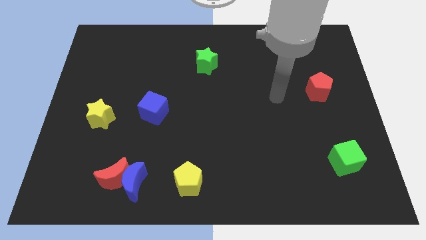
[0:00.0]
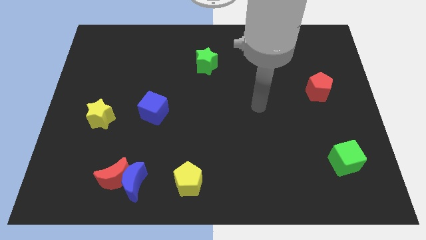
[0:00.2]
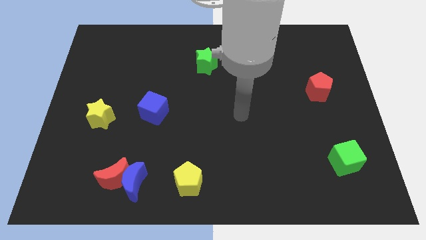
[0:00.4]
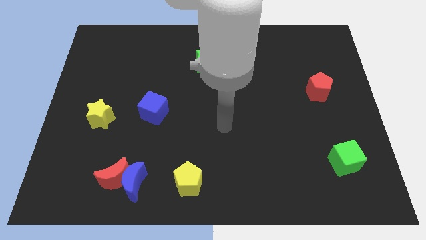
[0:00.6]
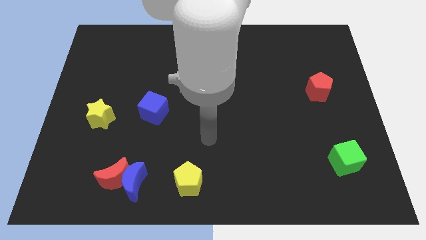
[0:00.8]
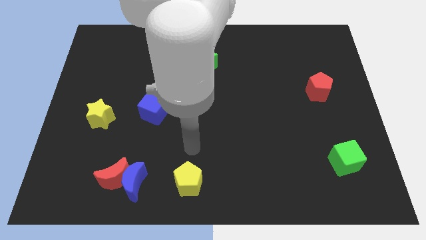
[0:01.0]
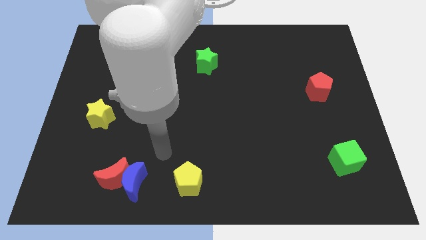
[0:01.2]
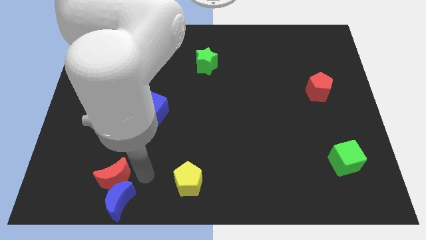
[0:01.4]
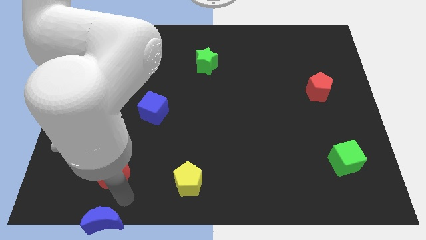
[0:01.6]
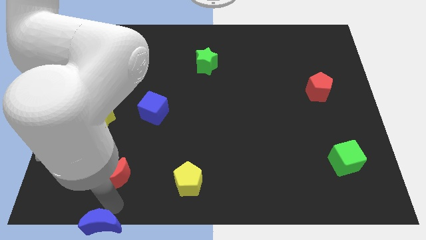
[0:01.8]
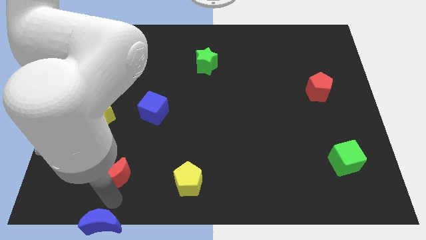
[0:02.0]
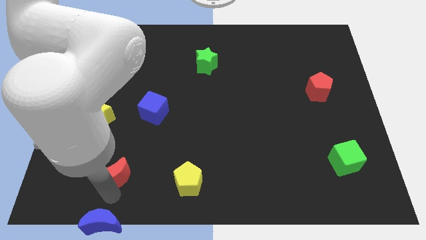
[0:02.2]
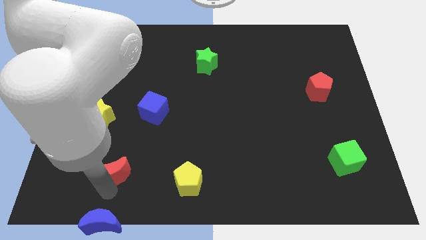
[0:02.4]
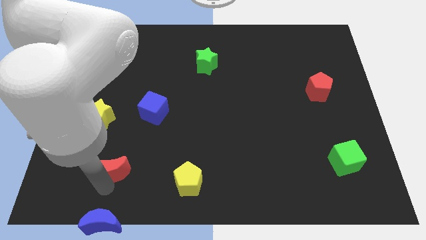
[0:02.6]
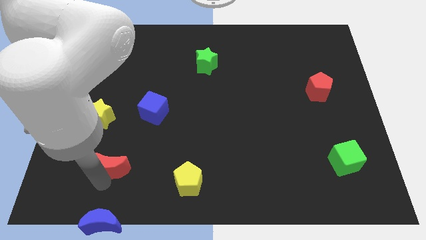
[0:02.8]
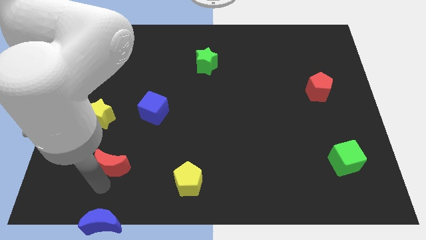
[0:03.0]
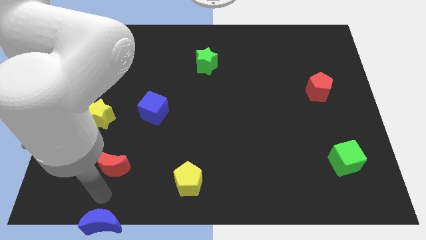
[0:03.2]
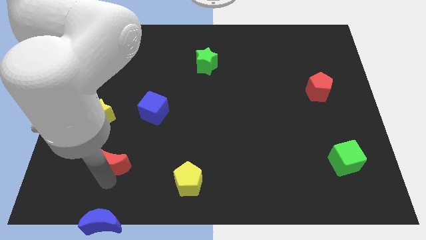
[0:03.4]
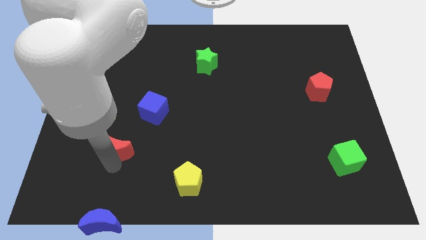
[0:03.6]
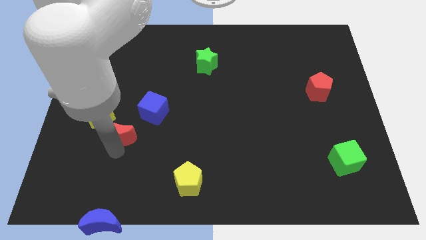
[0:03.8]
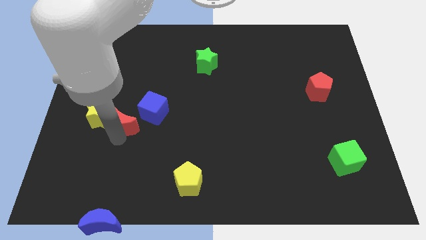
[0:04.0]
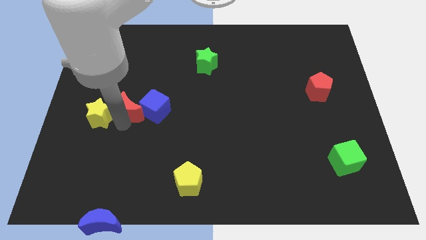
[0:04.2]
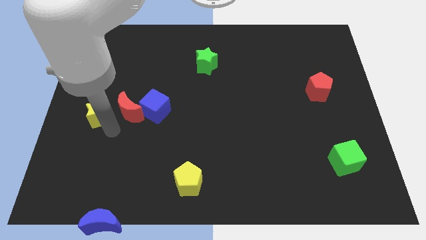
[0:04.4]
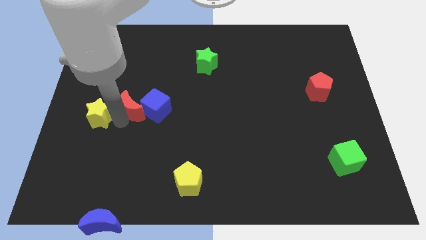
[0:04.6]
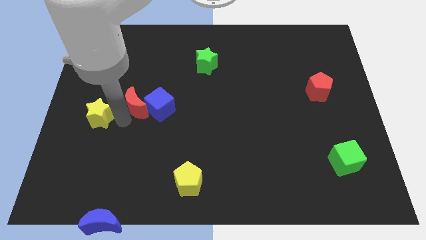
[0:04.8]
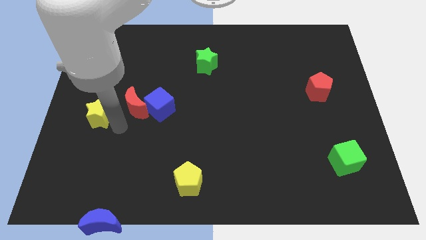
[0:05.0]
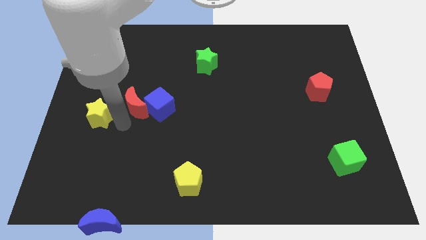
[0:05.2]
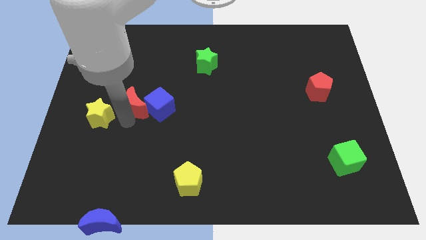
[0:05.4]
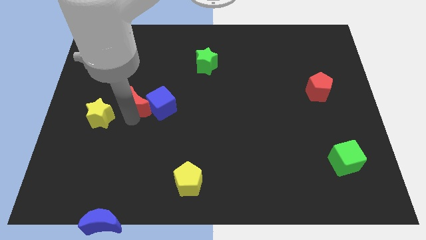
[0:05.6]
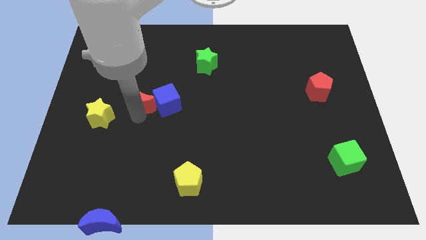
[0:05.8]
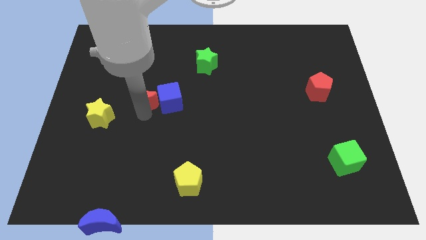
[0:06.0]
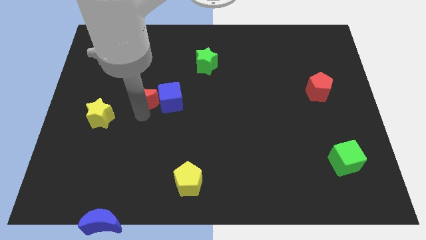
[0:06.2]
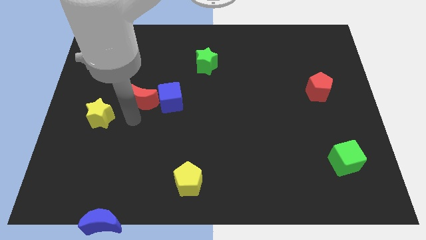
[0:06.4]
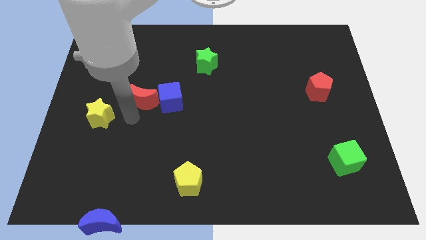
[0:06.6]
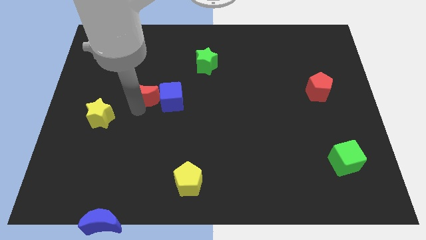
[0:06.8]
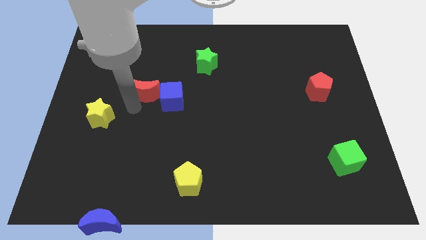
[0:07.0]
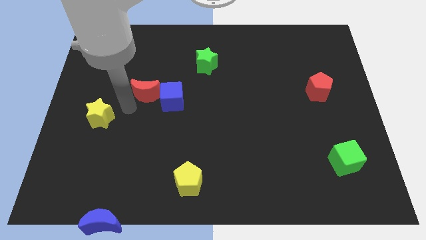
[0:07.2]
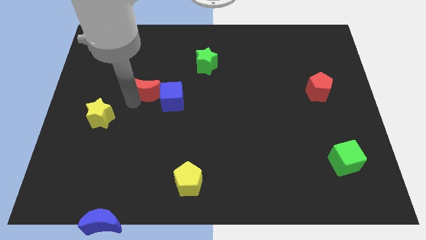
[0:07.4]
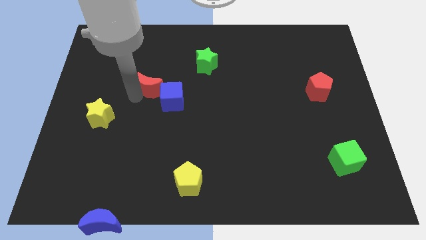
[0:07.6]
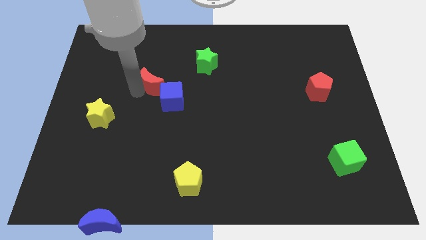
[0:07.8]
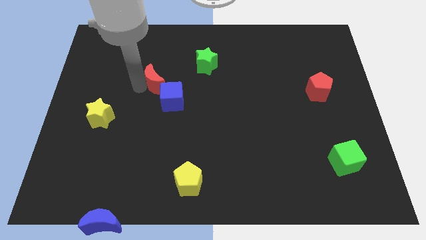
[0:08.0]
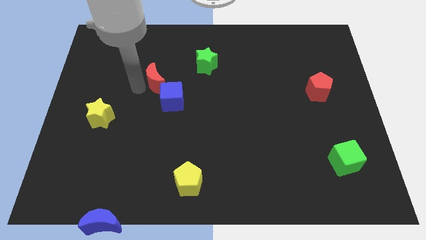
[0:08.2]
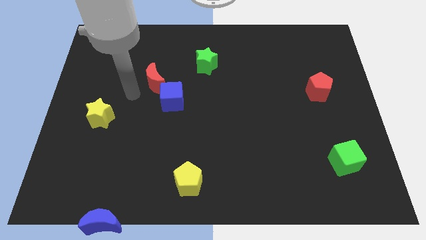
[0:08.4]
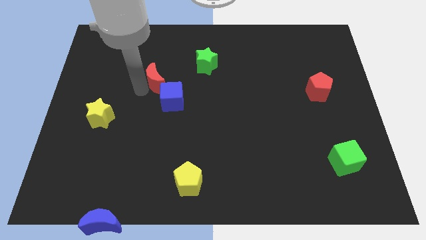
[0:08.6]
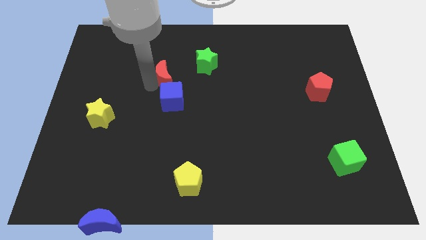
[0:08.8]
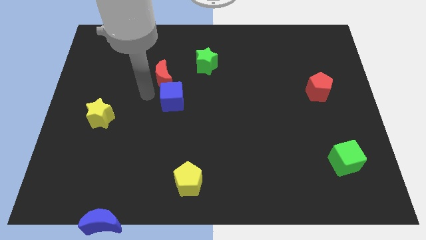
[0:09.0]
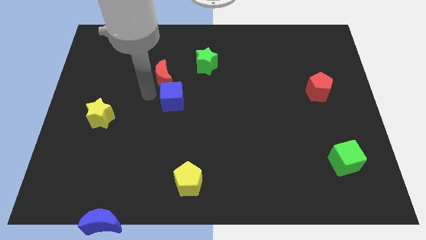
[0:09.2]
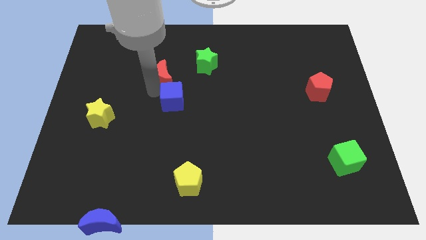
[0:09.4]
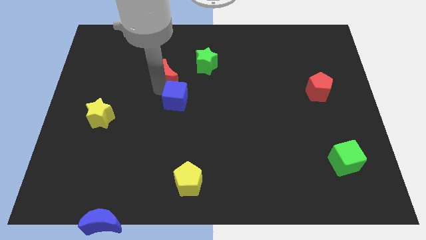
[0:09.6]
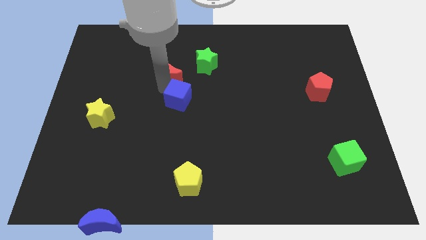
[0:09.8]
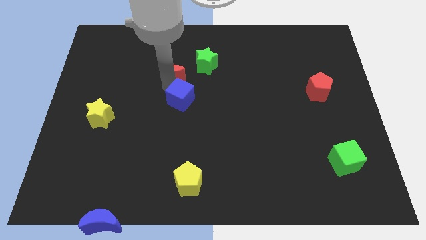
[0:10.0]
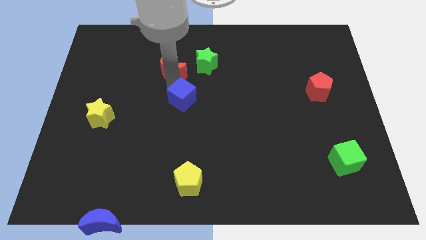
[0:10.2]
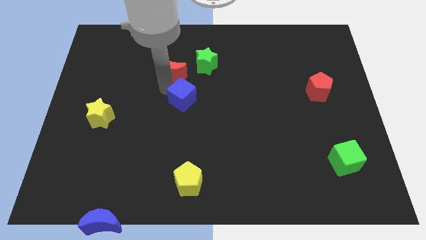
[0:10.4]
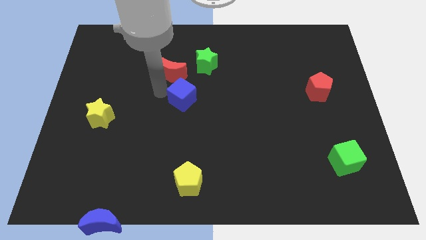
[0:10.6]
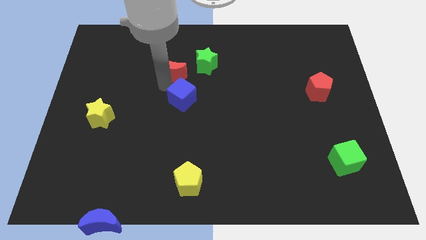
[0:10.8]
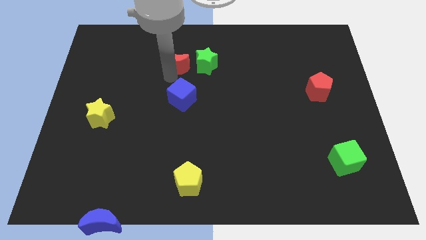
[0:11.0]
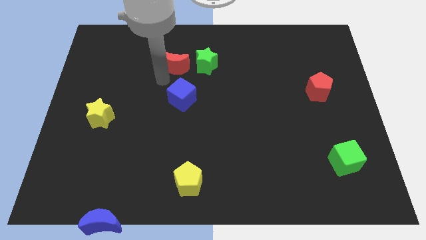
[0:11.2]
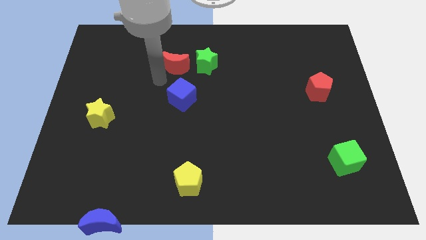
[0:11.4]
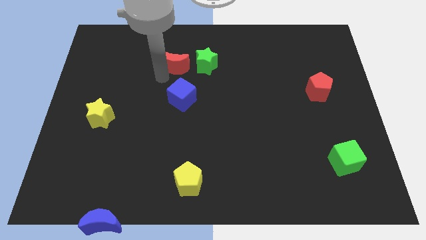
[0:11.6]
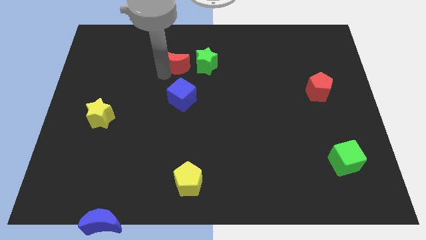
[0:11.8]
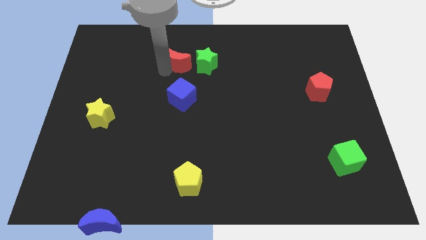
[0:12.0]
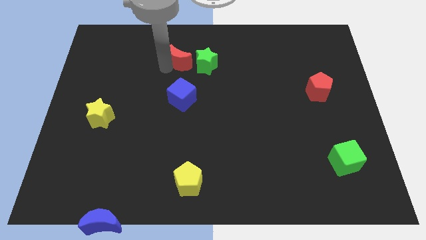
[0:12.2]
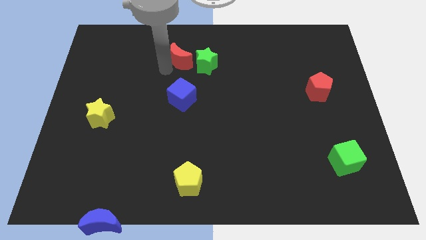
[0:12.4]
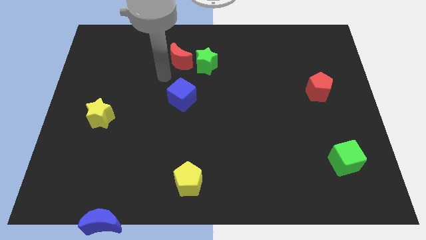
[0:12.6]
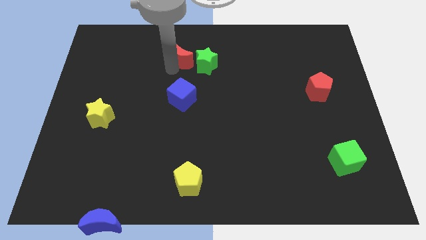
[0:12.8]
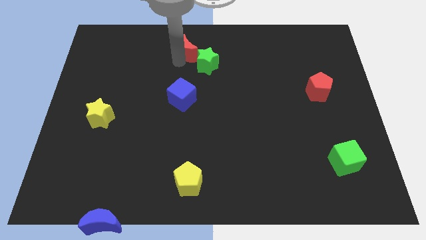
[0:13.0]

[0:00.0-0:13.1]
slide the red moon to the top
